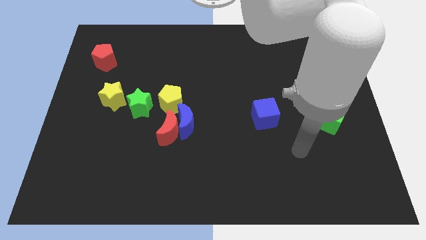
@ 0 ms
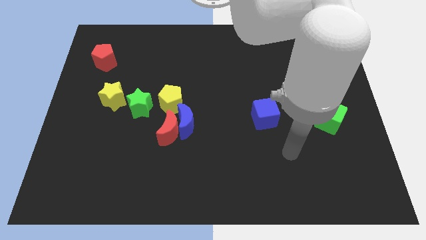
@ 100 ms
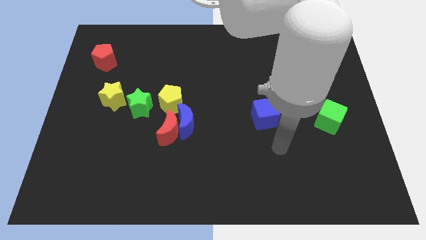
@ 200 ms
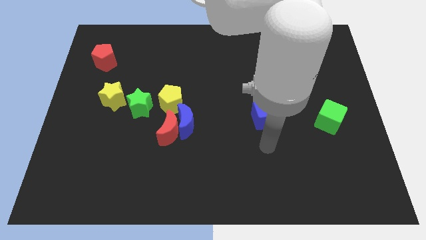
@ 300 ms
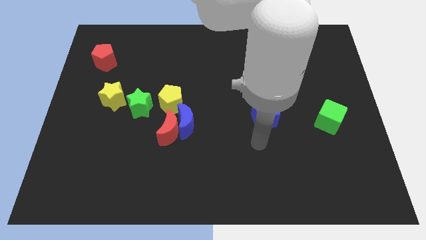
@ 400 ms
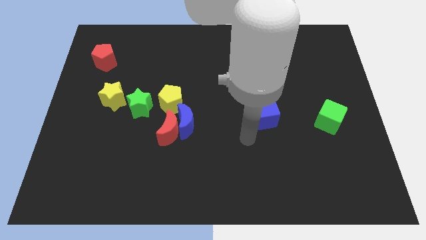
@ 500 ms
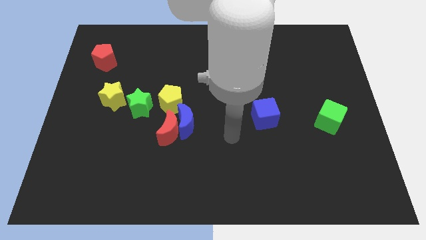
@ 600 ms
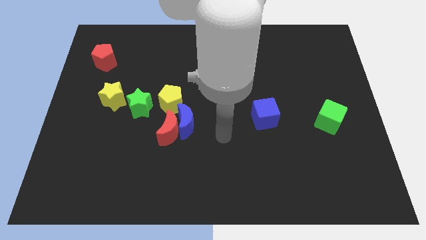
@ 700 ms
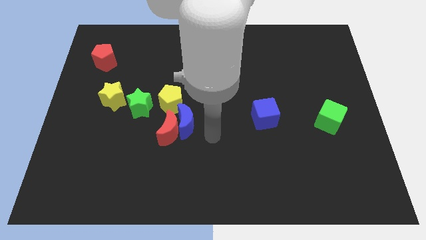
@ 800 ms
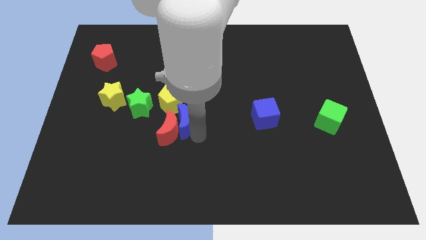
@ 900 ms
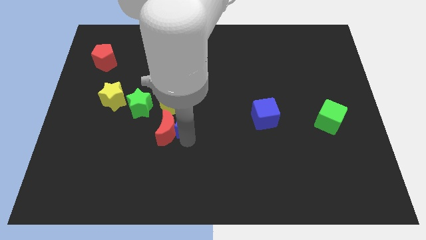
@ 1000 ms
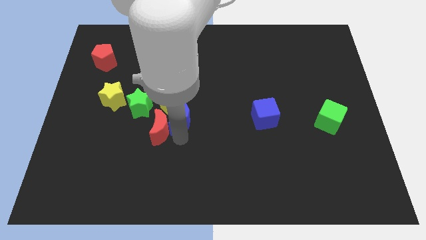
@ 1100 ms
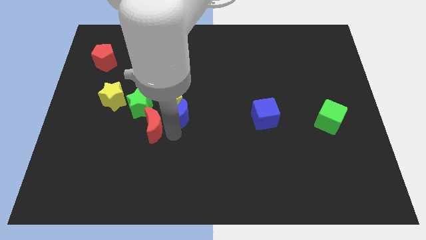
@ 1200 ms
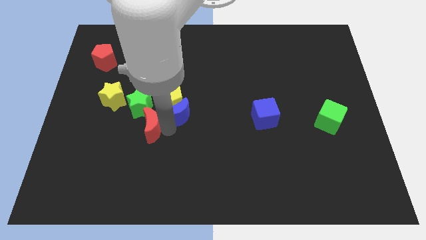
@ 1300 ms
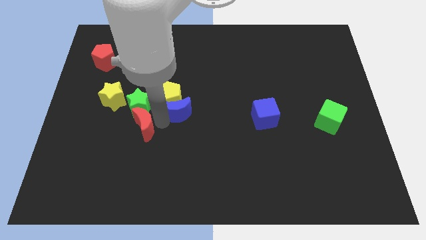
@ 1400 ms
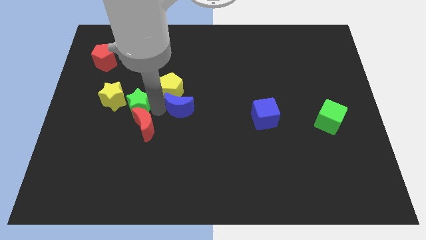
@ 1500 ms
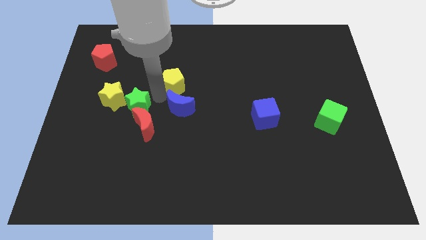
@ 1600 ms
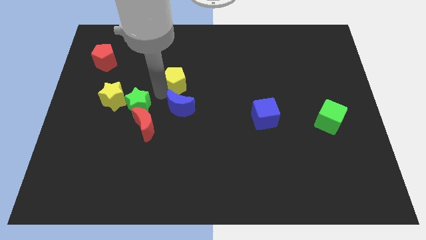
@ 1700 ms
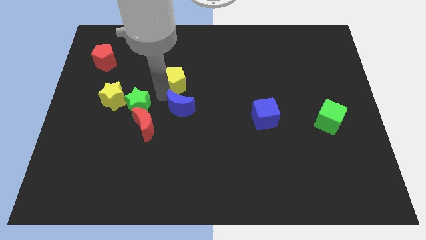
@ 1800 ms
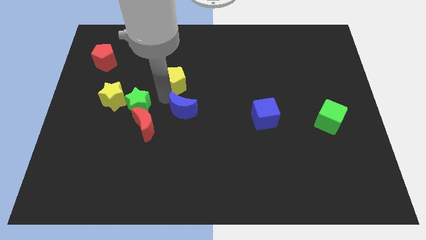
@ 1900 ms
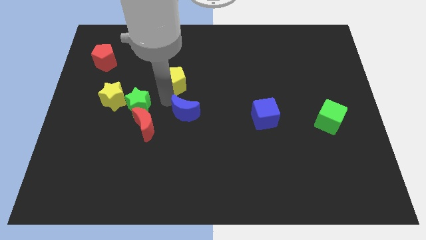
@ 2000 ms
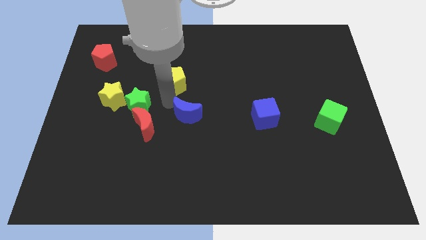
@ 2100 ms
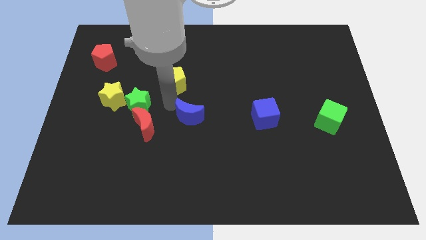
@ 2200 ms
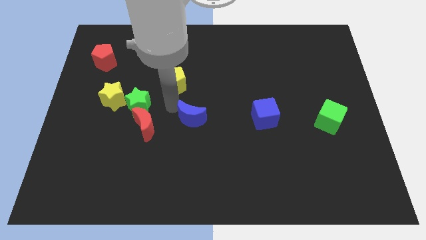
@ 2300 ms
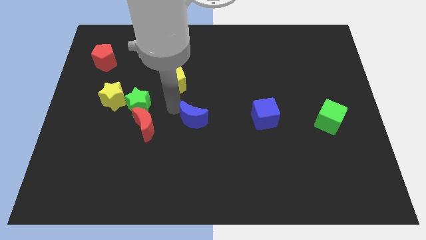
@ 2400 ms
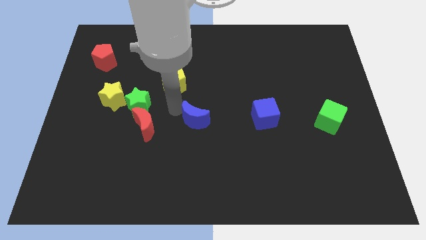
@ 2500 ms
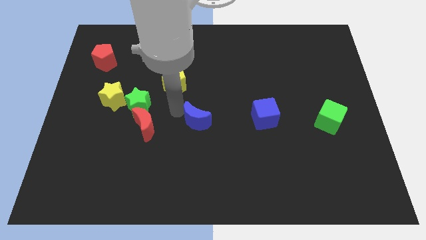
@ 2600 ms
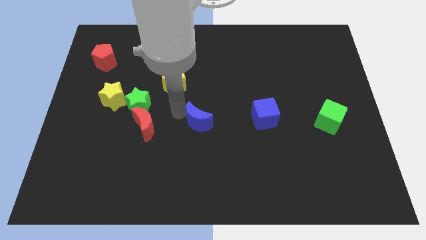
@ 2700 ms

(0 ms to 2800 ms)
separate the blue moon from the red moon and yellow pentagon

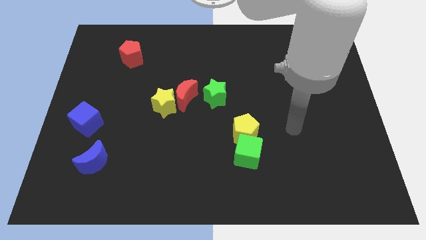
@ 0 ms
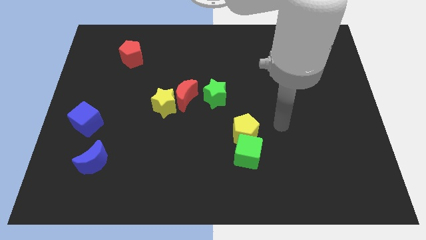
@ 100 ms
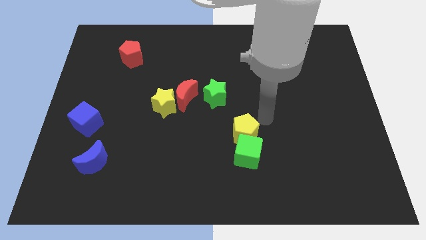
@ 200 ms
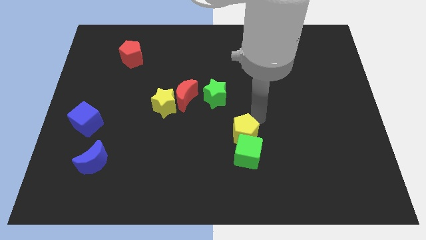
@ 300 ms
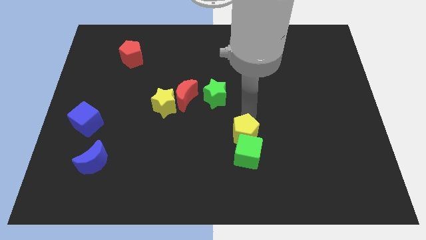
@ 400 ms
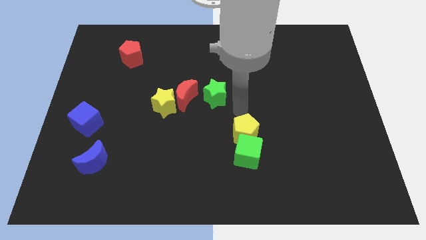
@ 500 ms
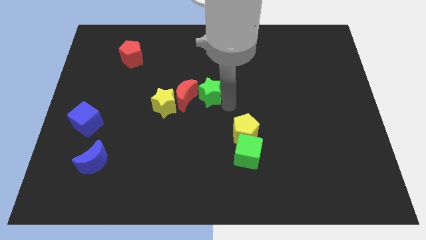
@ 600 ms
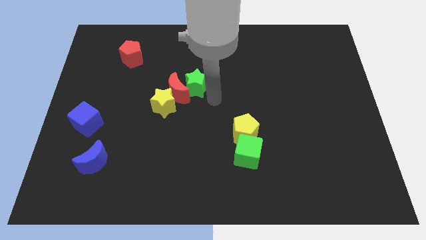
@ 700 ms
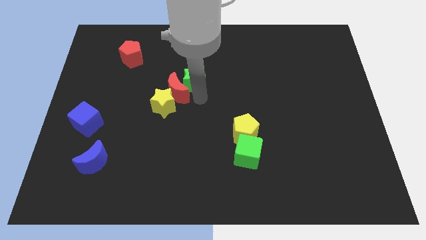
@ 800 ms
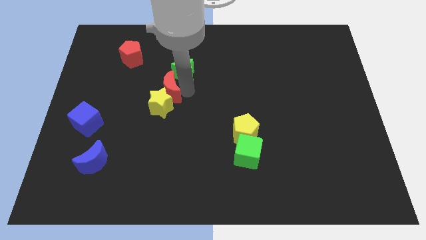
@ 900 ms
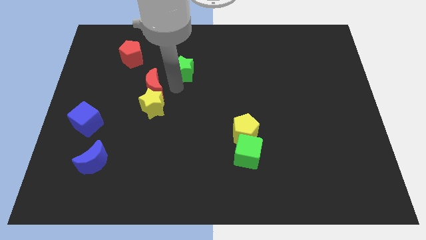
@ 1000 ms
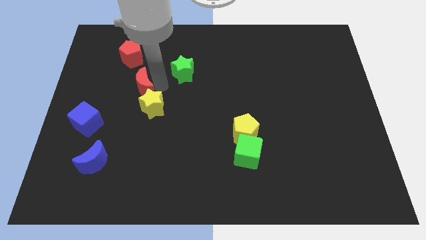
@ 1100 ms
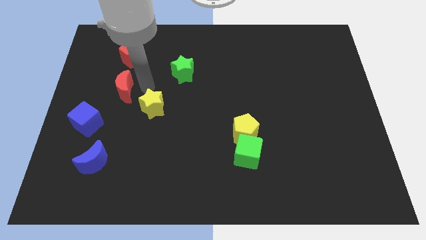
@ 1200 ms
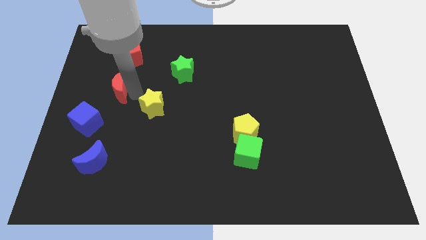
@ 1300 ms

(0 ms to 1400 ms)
separate the yellow star from the red moon

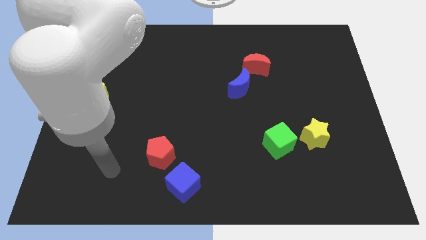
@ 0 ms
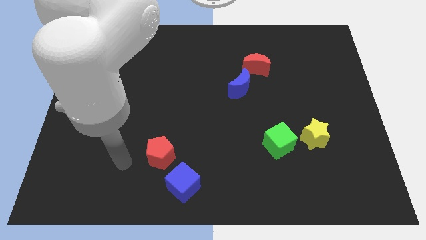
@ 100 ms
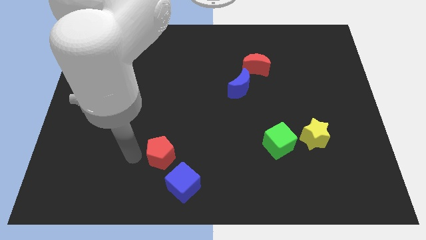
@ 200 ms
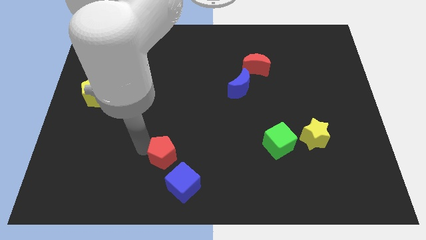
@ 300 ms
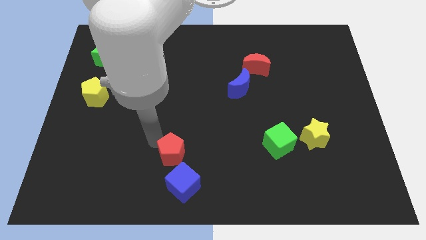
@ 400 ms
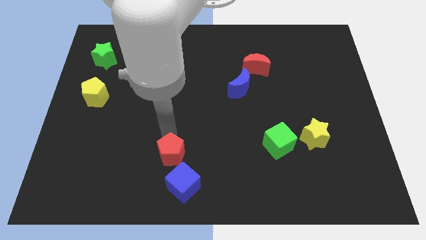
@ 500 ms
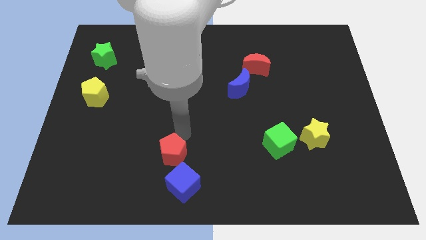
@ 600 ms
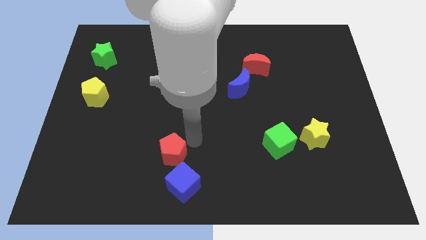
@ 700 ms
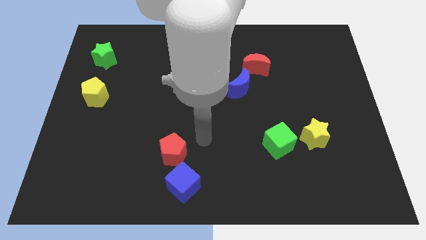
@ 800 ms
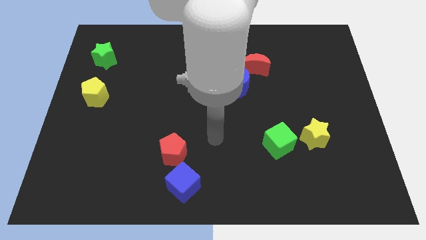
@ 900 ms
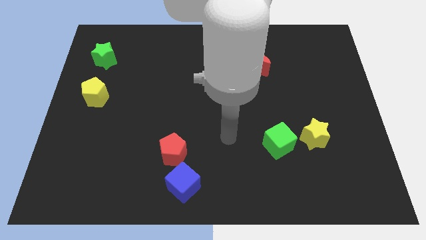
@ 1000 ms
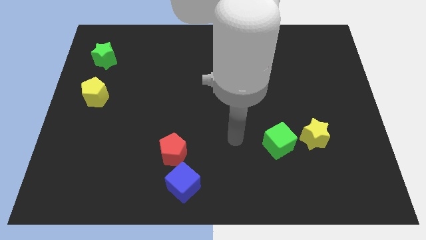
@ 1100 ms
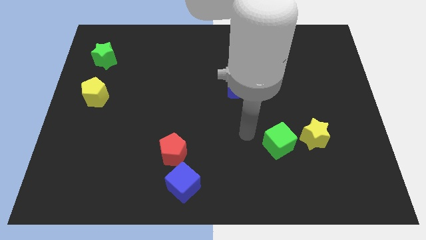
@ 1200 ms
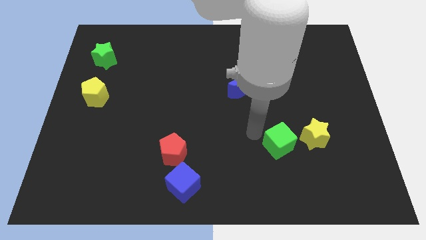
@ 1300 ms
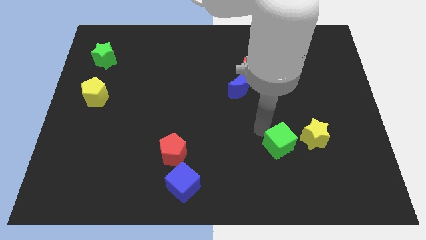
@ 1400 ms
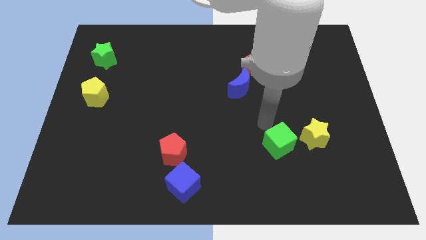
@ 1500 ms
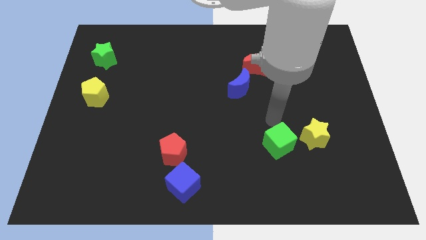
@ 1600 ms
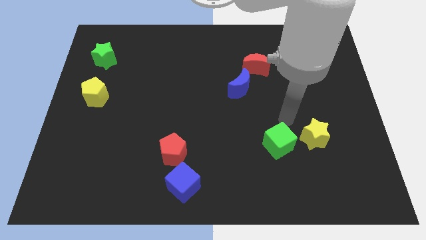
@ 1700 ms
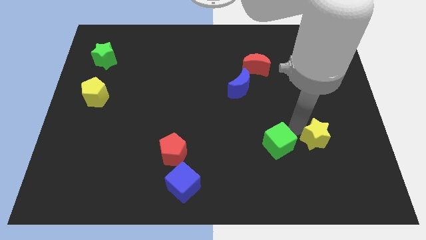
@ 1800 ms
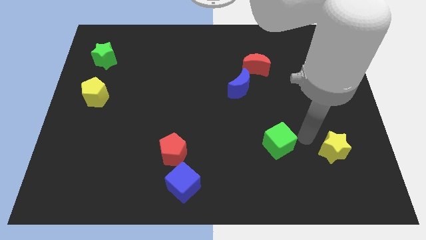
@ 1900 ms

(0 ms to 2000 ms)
separate the green cube from the yellow star

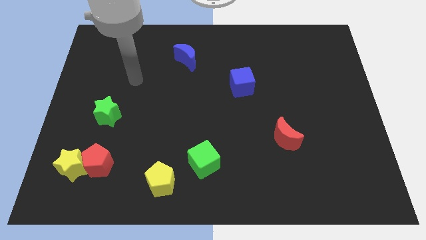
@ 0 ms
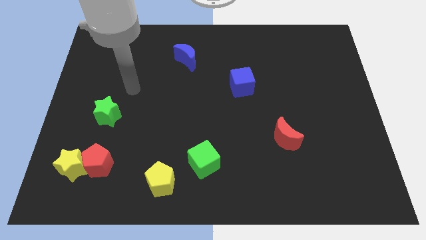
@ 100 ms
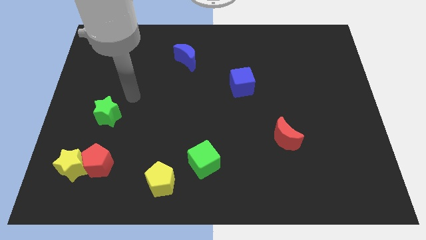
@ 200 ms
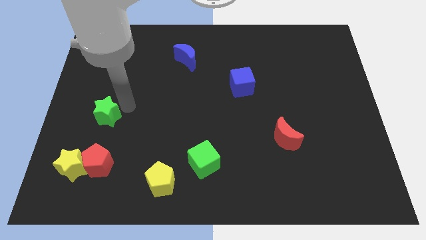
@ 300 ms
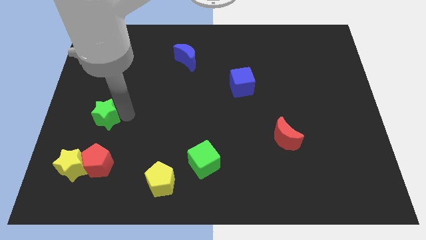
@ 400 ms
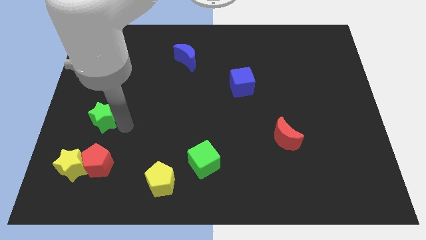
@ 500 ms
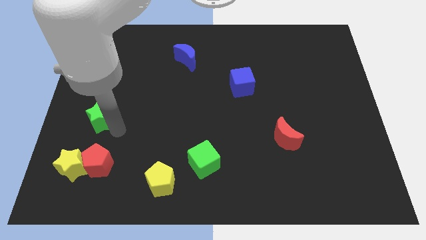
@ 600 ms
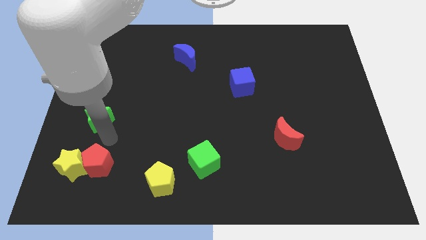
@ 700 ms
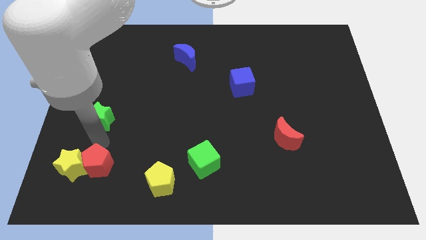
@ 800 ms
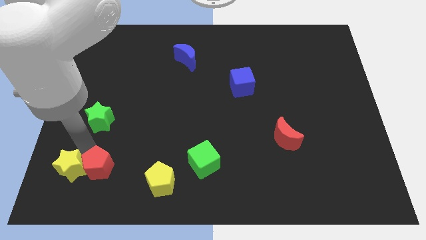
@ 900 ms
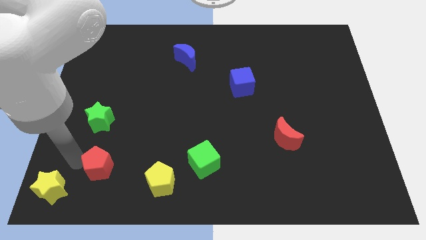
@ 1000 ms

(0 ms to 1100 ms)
separate the red pentagon from the yellow star

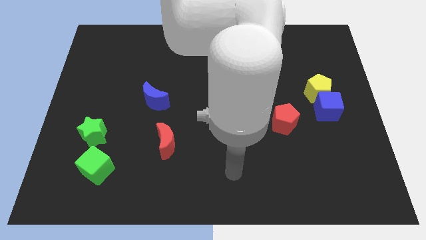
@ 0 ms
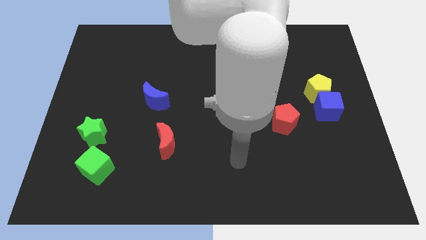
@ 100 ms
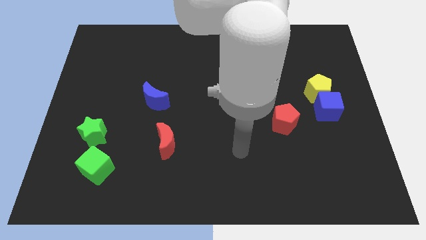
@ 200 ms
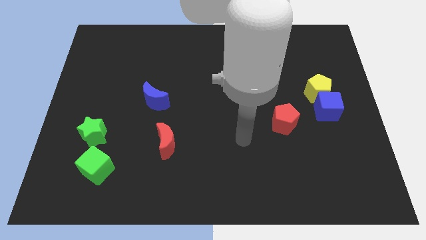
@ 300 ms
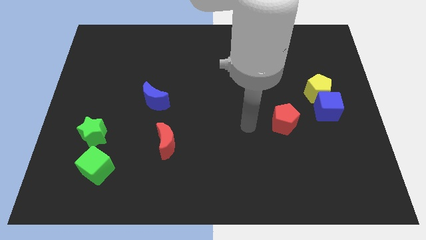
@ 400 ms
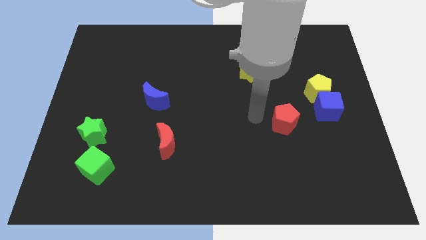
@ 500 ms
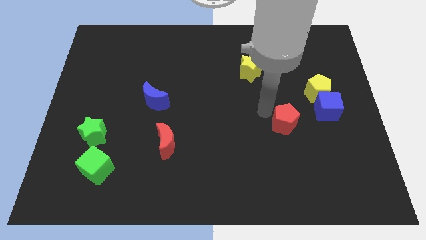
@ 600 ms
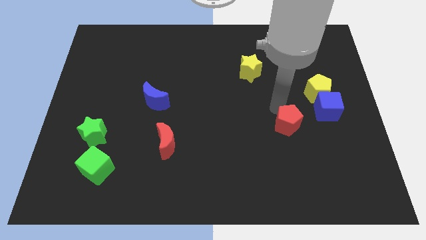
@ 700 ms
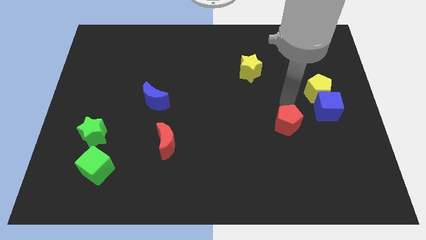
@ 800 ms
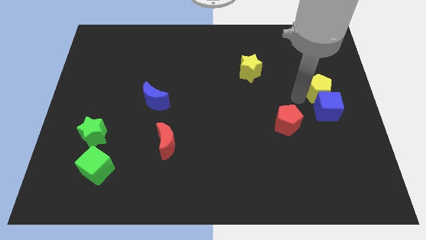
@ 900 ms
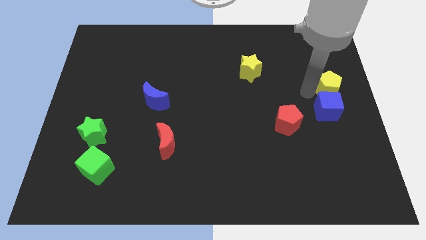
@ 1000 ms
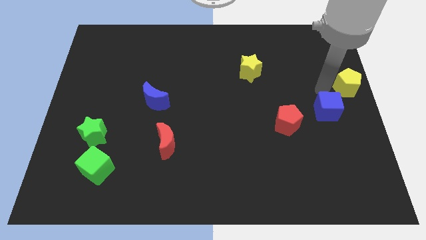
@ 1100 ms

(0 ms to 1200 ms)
move the blue cube away from the yellow pentagon

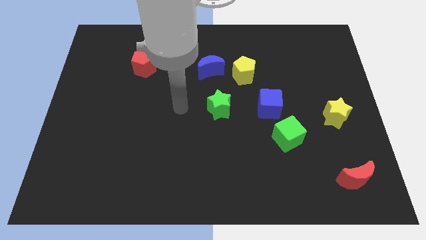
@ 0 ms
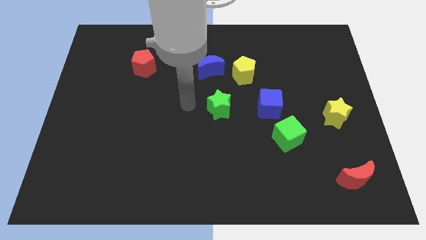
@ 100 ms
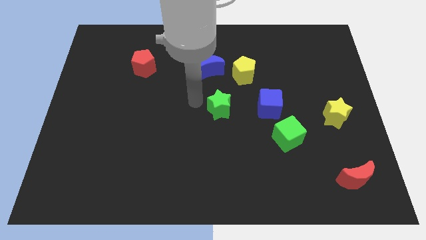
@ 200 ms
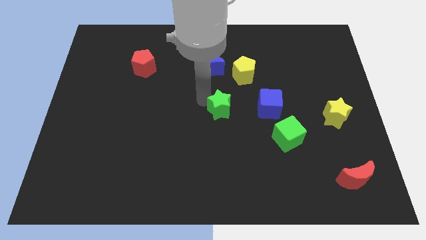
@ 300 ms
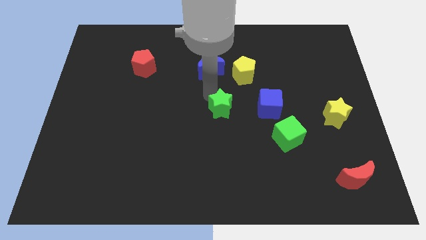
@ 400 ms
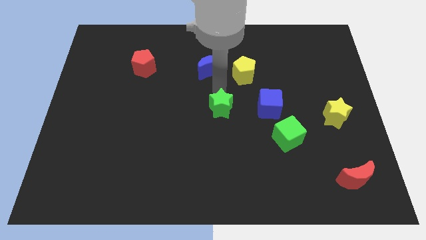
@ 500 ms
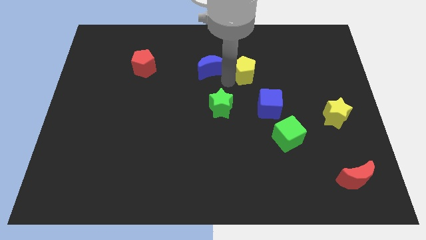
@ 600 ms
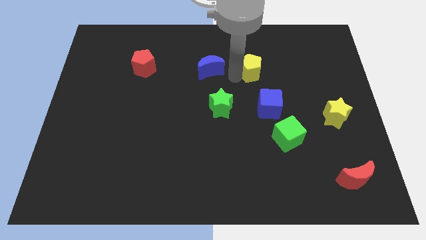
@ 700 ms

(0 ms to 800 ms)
move the blue moon away from the yellow pentagon

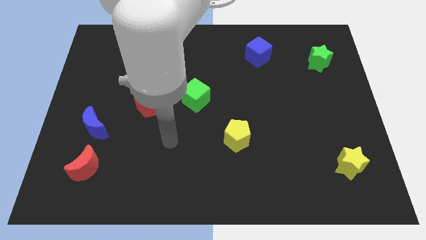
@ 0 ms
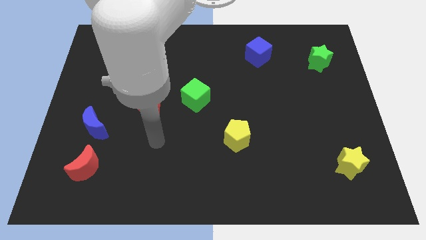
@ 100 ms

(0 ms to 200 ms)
move the red moon away from the blue moon
